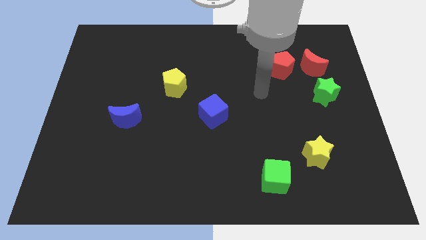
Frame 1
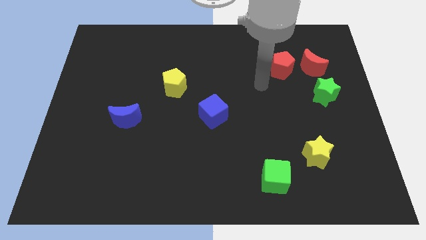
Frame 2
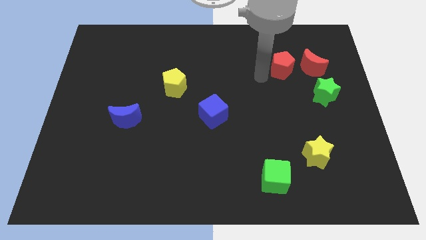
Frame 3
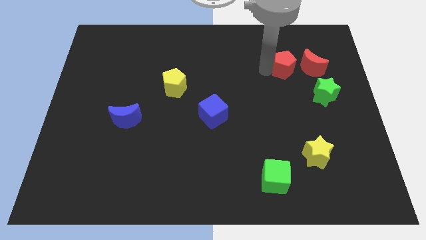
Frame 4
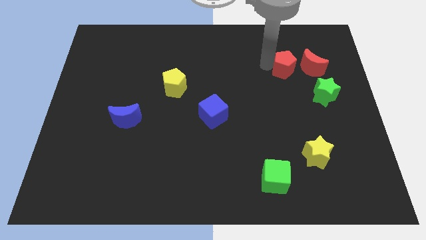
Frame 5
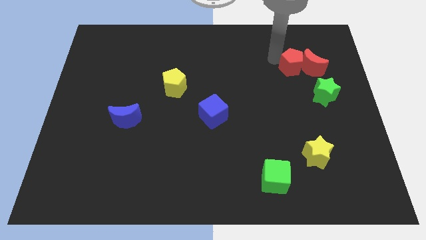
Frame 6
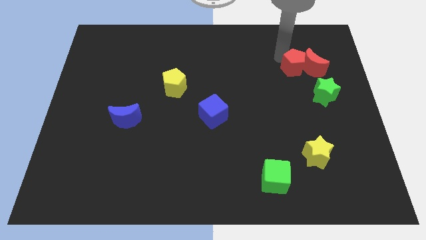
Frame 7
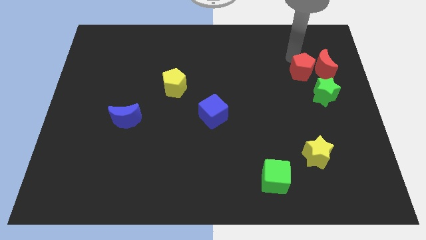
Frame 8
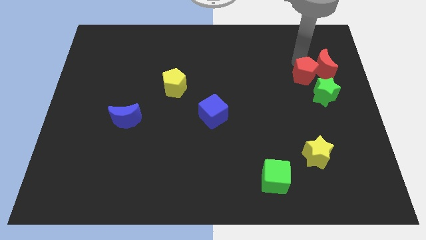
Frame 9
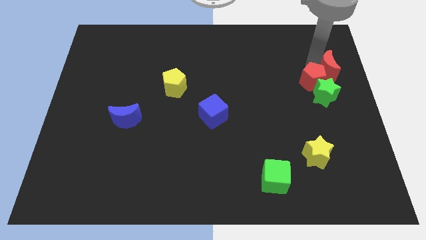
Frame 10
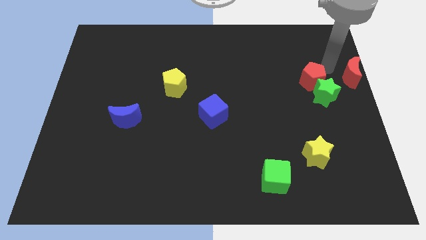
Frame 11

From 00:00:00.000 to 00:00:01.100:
separate the red pentagon from the red moon

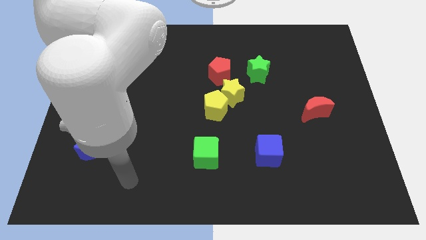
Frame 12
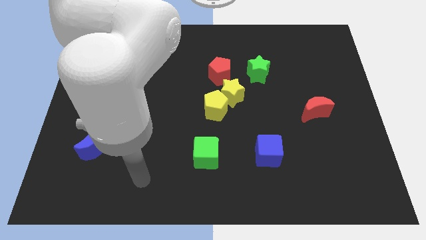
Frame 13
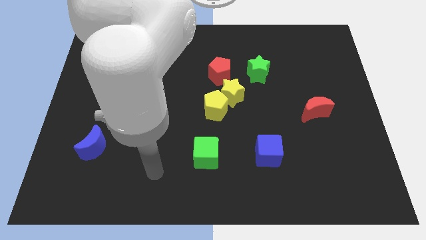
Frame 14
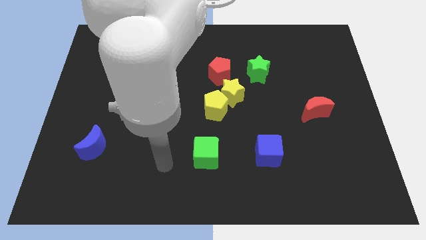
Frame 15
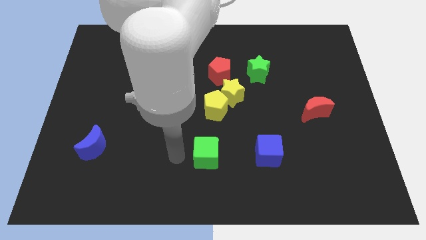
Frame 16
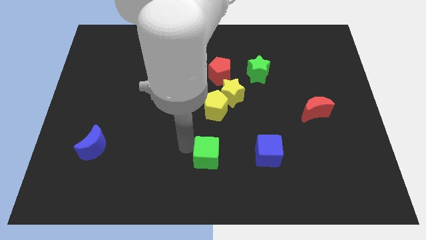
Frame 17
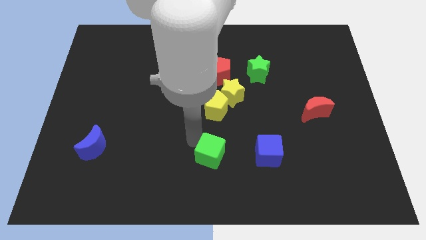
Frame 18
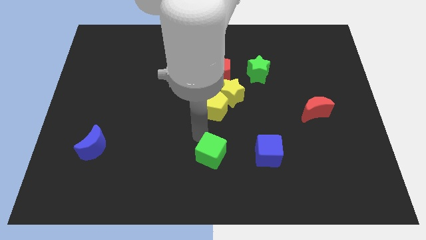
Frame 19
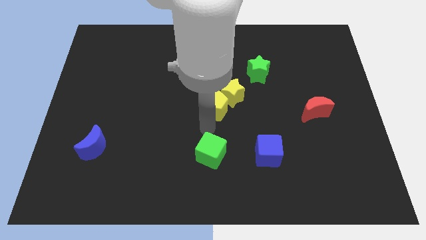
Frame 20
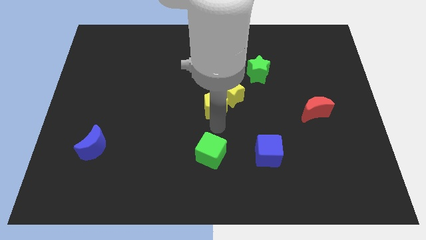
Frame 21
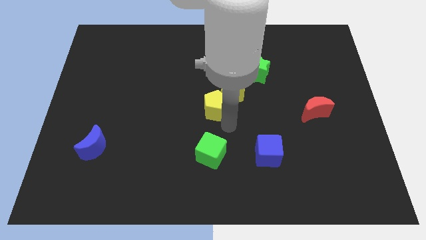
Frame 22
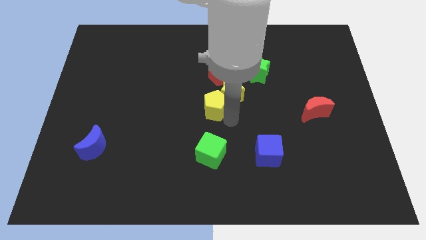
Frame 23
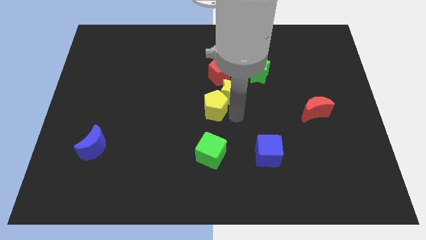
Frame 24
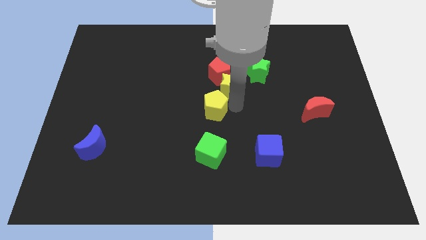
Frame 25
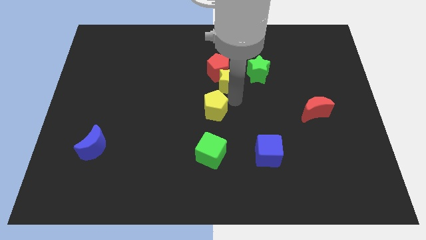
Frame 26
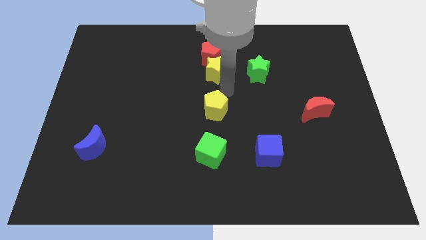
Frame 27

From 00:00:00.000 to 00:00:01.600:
move the yellow pentagon away from the yellow star

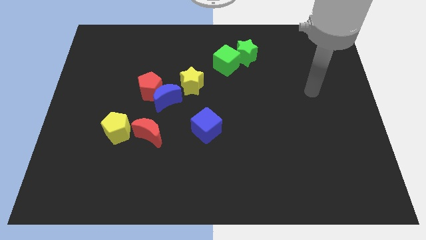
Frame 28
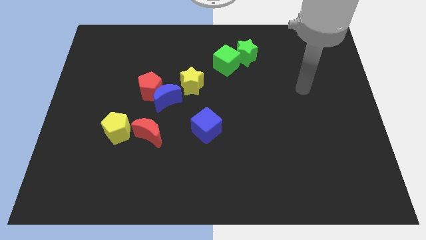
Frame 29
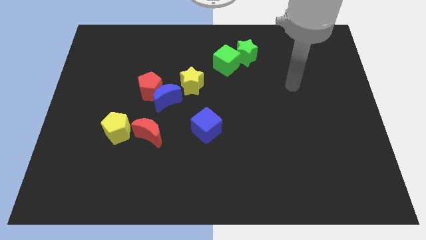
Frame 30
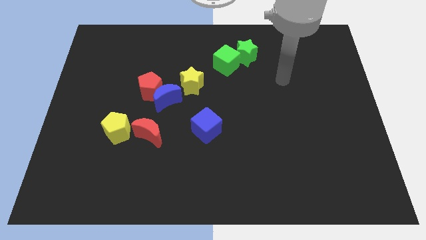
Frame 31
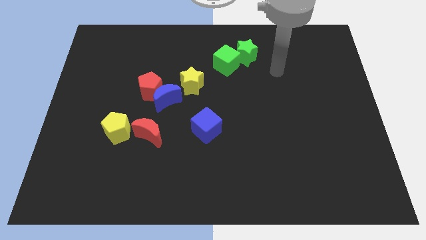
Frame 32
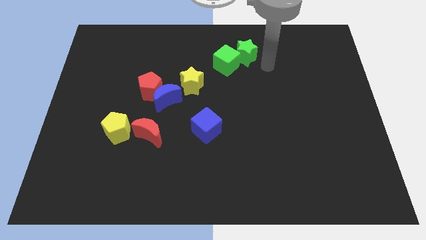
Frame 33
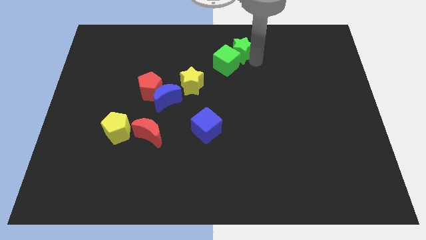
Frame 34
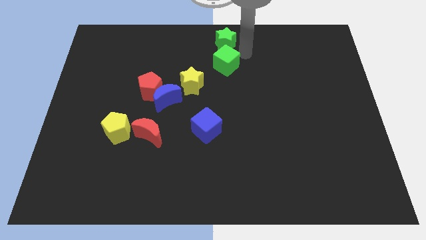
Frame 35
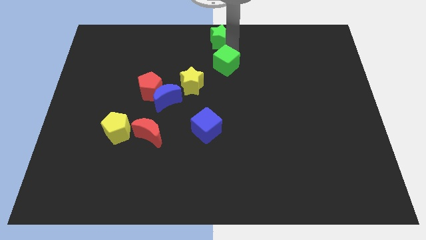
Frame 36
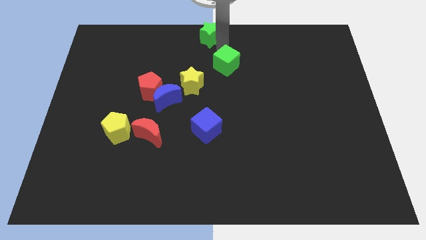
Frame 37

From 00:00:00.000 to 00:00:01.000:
separate the green cube from the green star

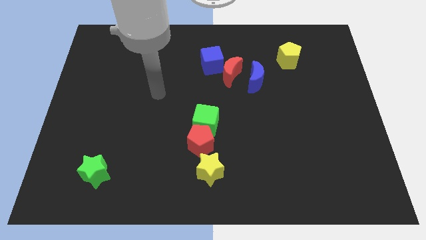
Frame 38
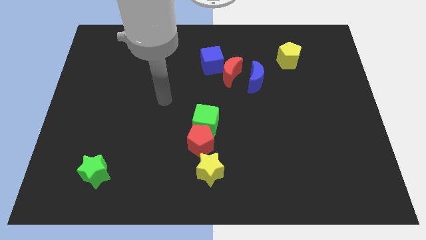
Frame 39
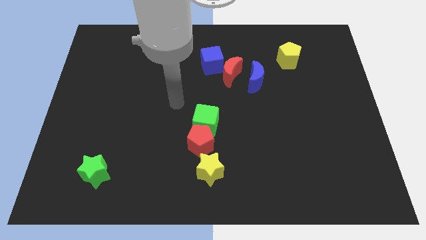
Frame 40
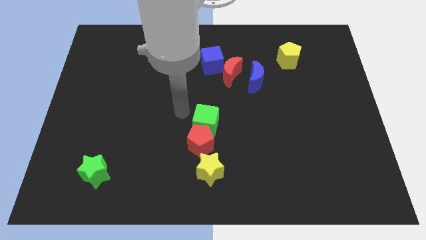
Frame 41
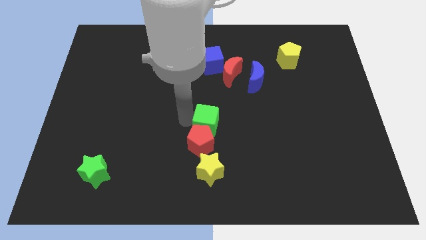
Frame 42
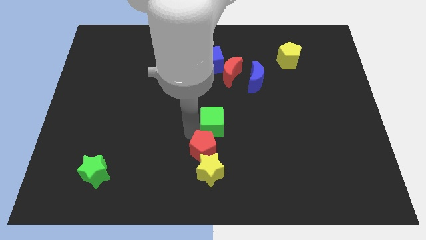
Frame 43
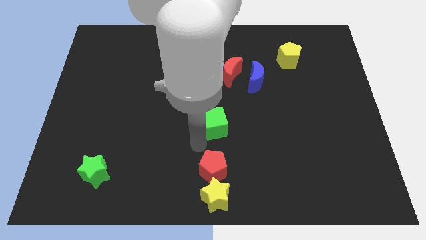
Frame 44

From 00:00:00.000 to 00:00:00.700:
move the green cube away from the red pentagon

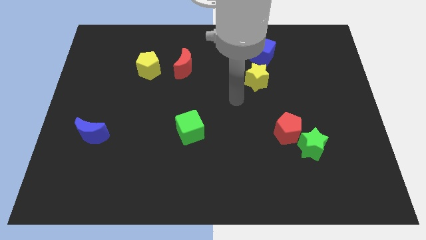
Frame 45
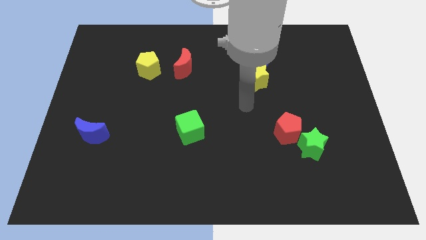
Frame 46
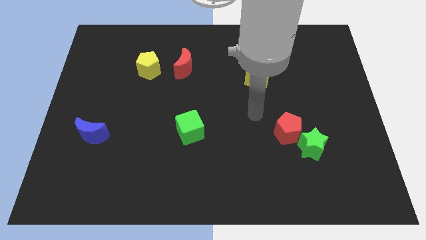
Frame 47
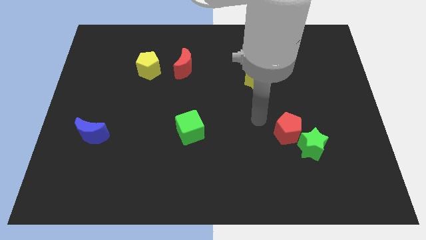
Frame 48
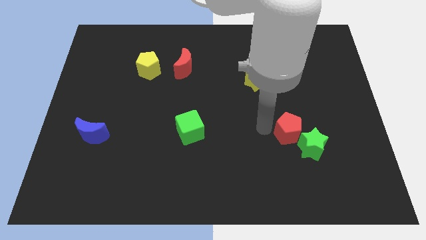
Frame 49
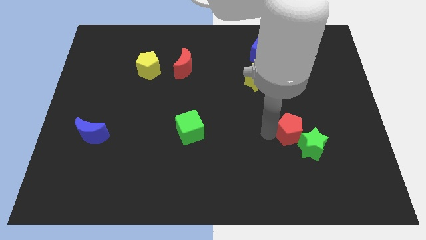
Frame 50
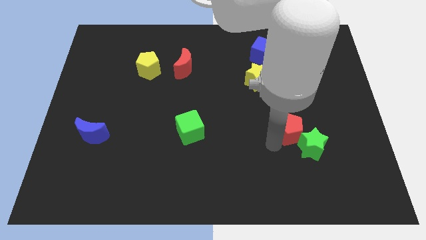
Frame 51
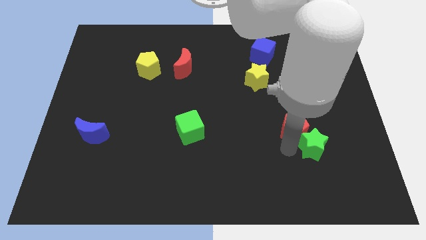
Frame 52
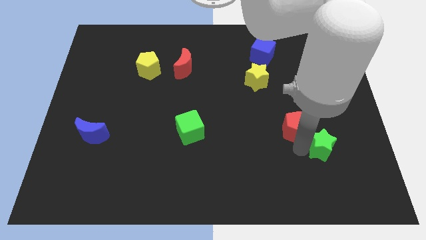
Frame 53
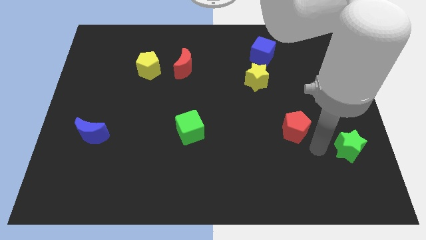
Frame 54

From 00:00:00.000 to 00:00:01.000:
separate the red pentagon from the green star

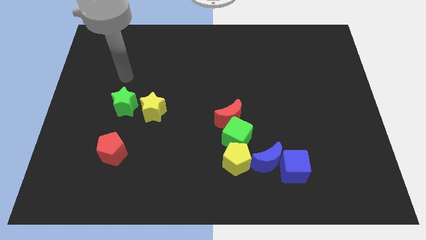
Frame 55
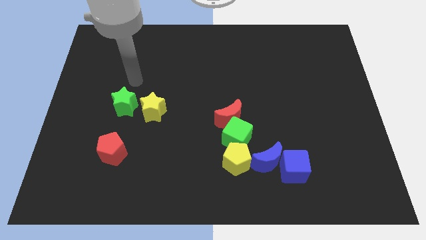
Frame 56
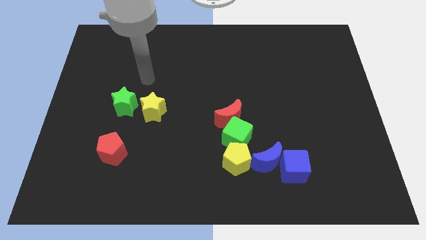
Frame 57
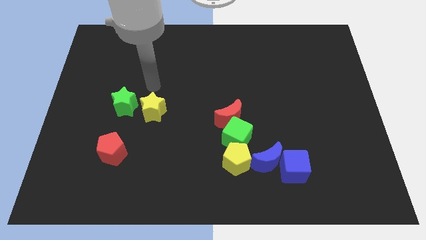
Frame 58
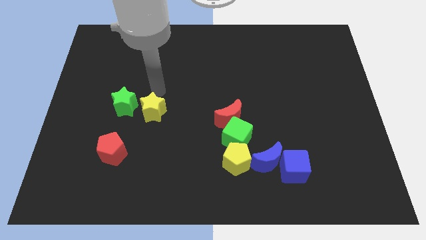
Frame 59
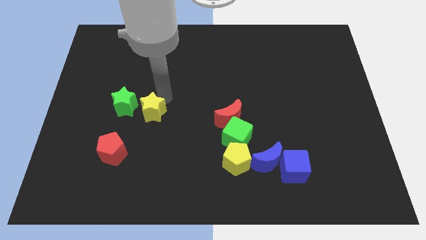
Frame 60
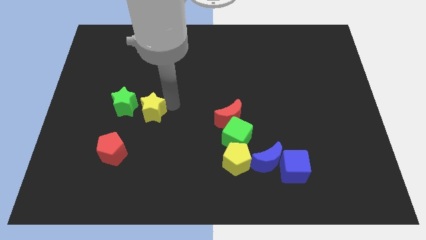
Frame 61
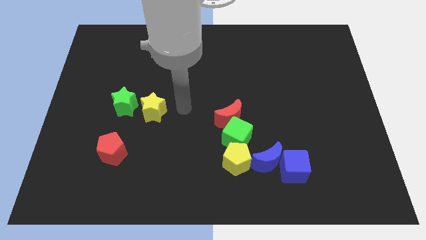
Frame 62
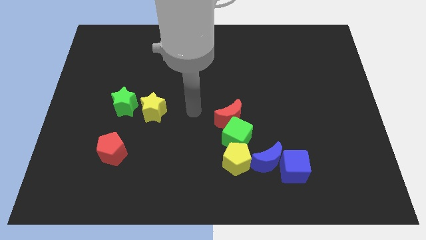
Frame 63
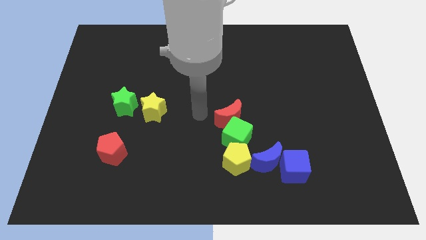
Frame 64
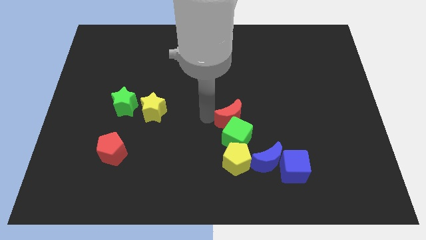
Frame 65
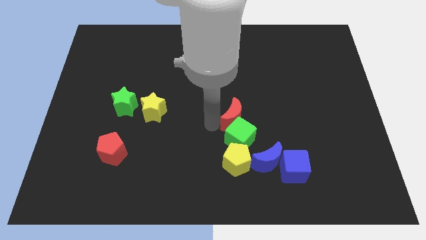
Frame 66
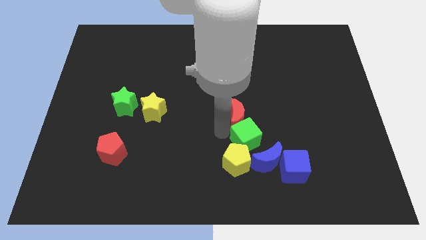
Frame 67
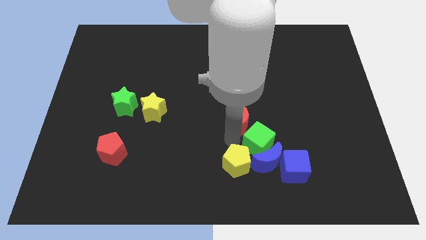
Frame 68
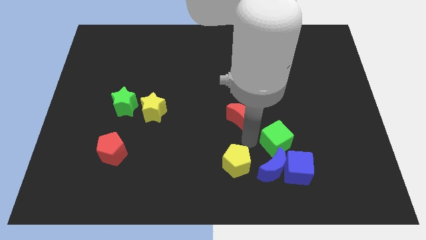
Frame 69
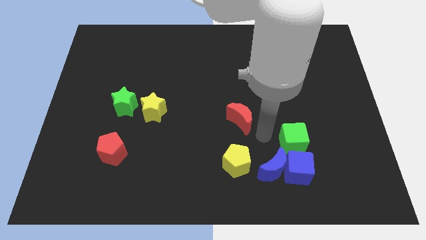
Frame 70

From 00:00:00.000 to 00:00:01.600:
separate the red moon from the green cube

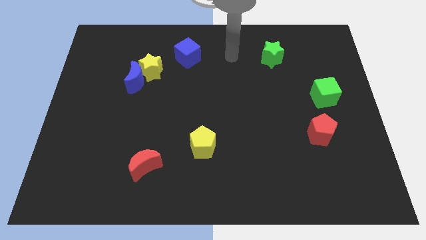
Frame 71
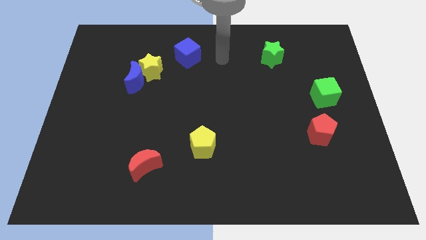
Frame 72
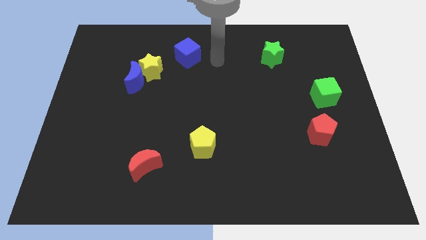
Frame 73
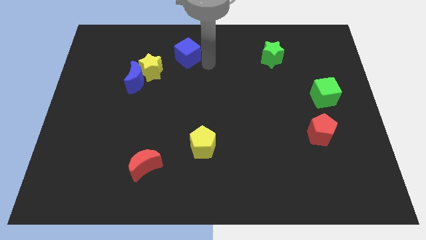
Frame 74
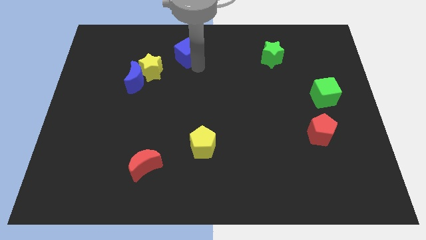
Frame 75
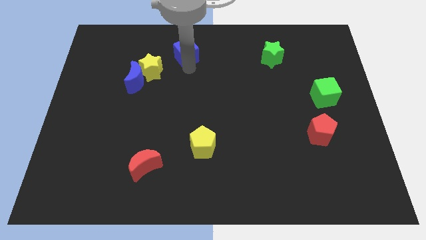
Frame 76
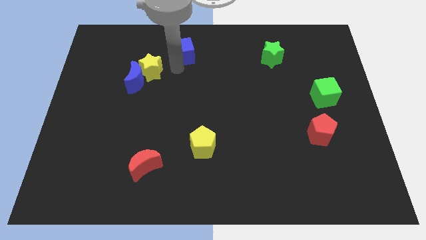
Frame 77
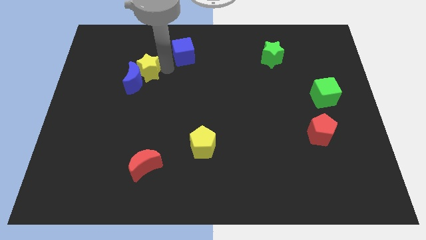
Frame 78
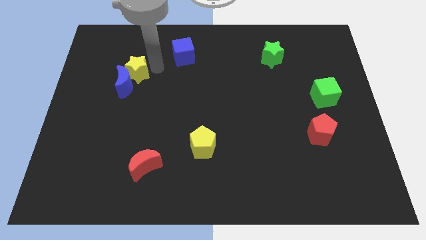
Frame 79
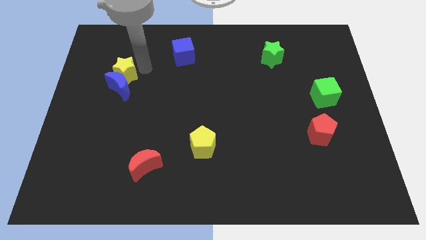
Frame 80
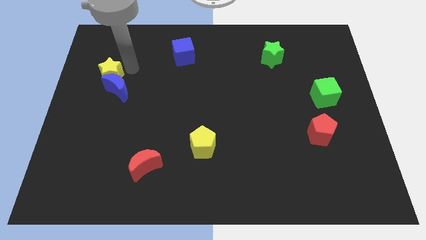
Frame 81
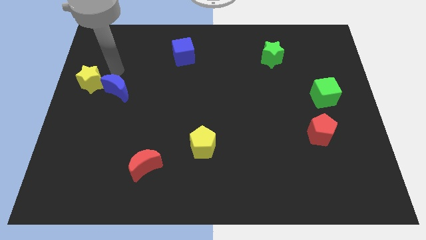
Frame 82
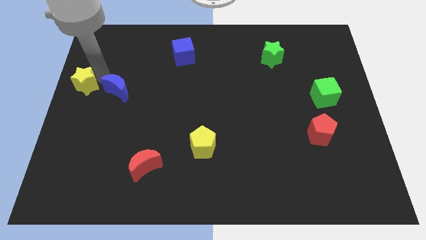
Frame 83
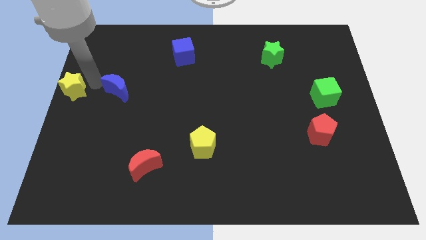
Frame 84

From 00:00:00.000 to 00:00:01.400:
pull the blue moon apart from the yellow star

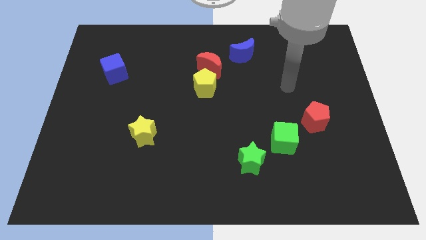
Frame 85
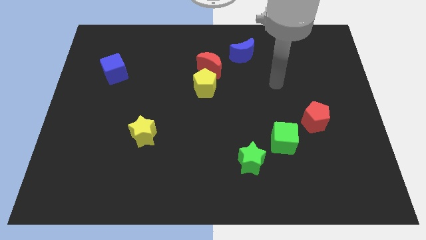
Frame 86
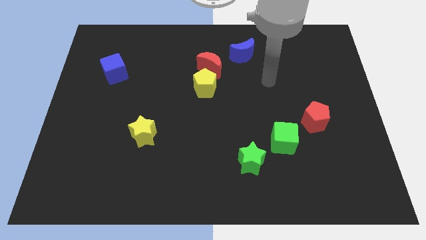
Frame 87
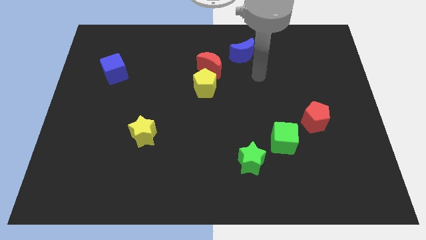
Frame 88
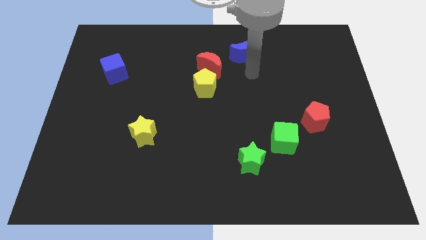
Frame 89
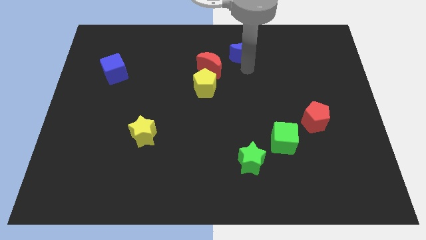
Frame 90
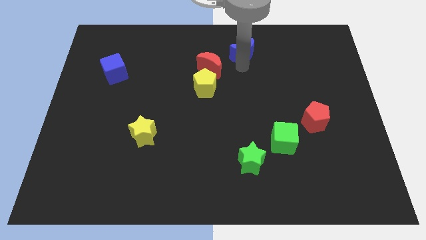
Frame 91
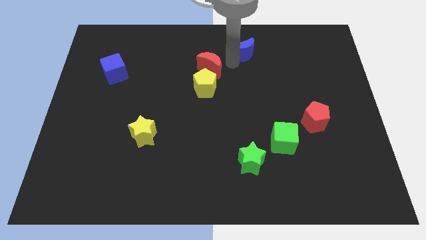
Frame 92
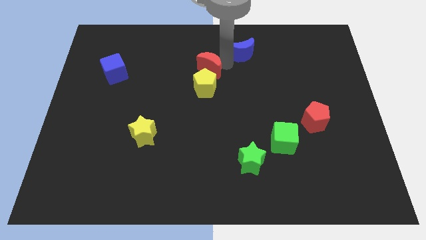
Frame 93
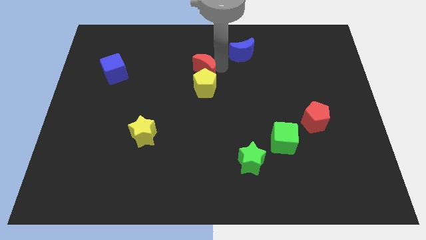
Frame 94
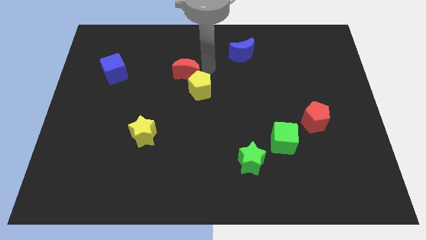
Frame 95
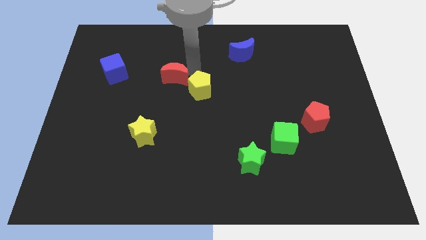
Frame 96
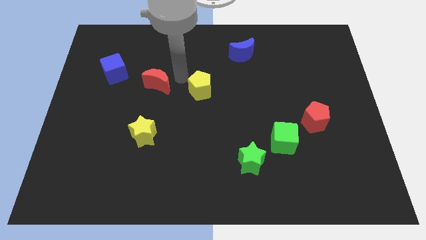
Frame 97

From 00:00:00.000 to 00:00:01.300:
move the yellow pentagon away from the red moon
